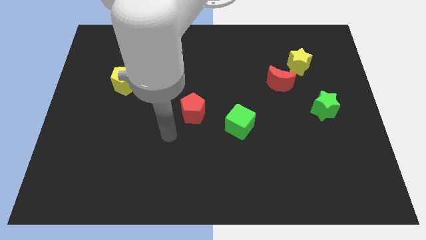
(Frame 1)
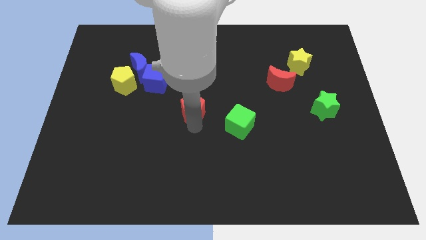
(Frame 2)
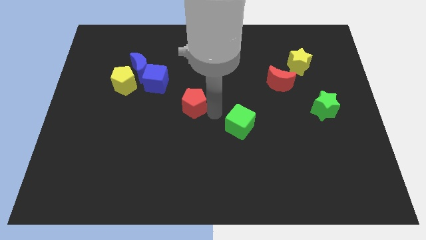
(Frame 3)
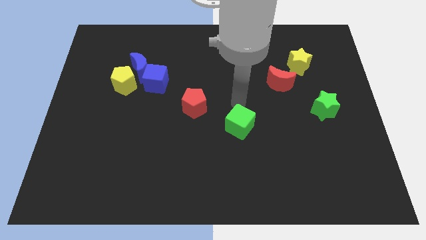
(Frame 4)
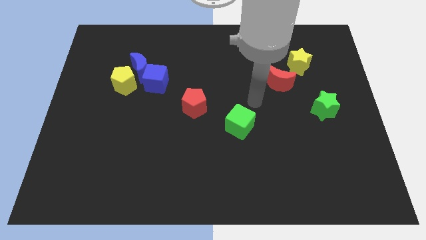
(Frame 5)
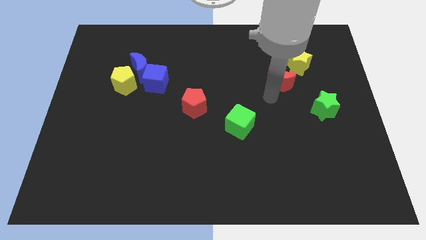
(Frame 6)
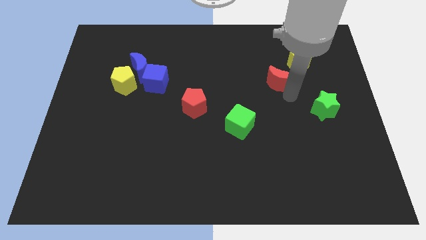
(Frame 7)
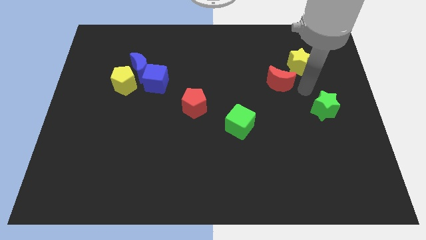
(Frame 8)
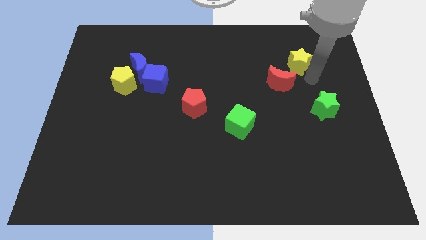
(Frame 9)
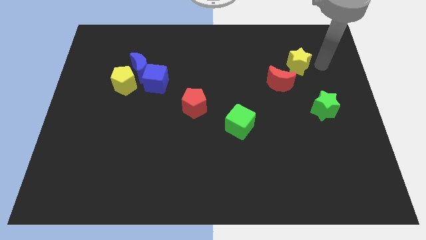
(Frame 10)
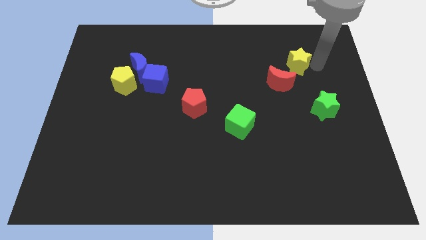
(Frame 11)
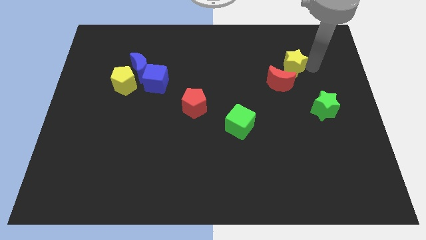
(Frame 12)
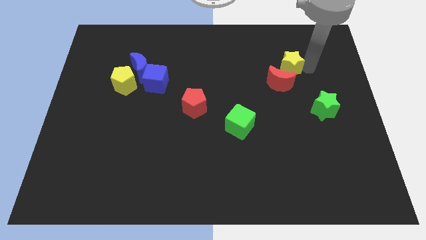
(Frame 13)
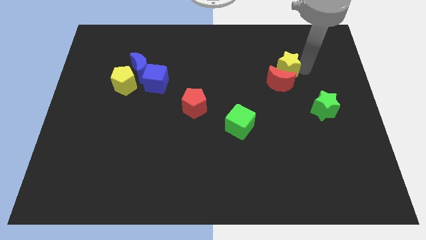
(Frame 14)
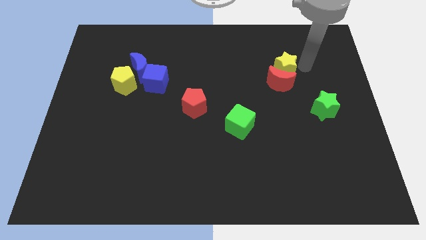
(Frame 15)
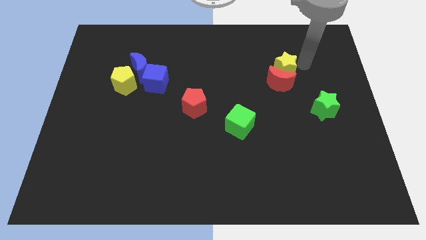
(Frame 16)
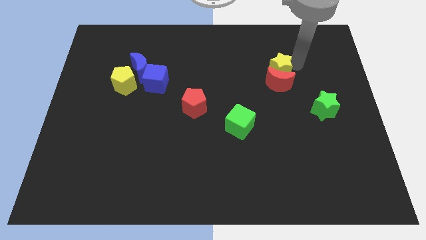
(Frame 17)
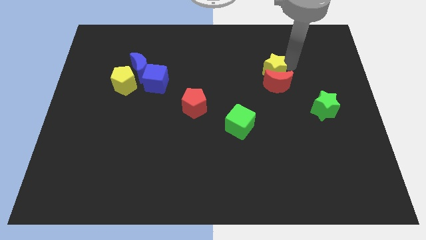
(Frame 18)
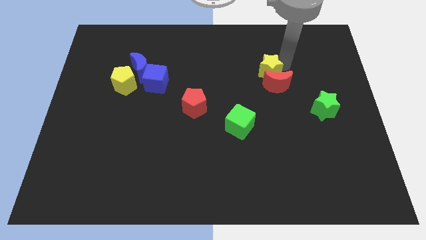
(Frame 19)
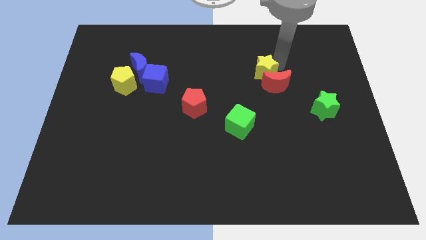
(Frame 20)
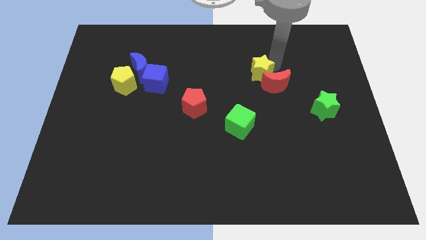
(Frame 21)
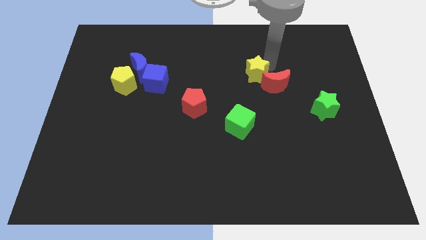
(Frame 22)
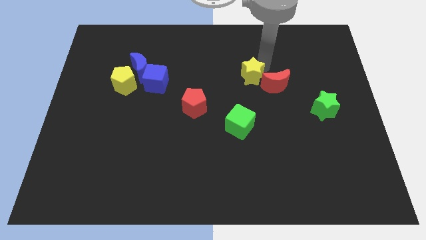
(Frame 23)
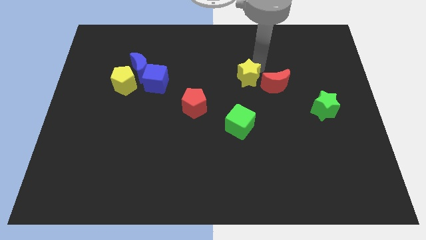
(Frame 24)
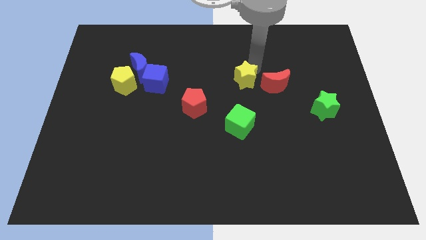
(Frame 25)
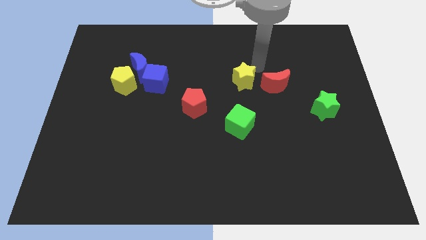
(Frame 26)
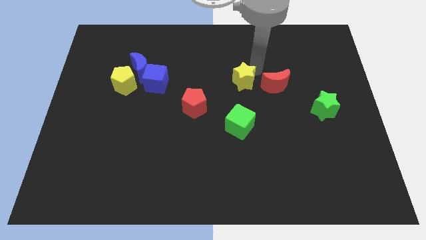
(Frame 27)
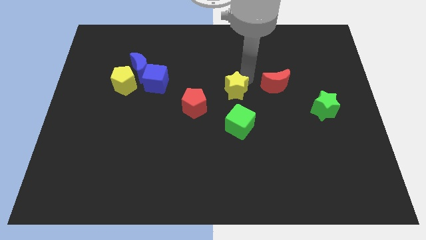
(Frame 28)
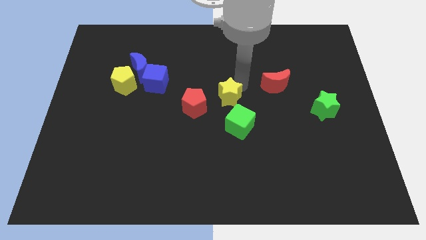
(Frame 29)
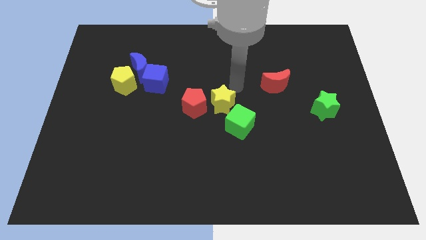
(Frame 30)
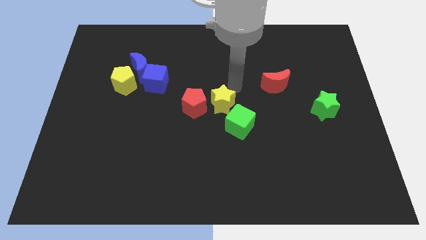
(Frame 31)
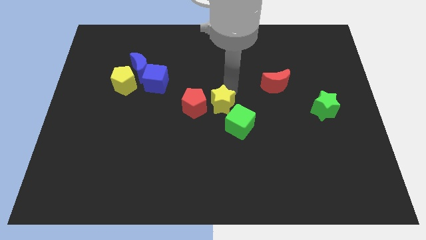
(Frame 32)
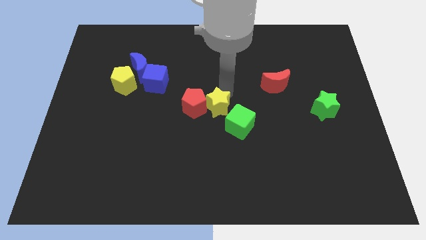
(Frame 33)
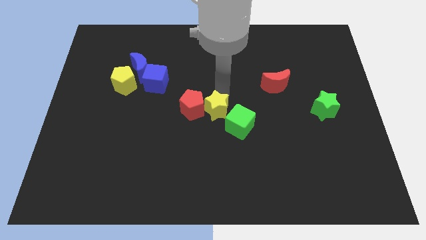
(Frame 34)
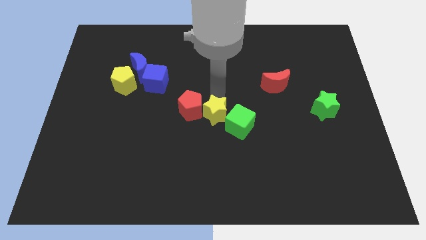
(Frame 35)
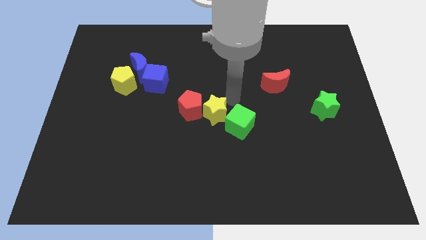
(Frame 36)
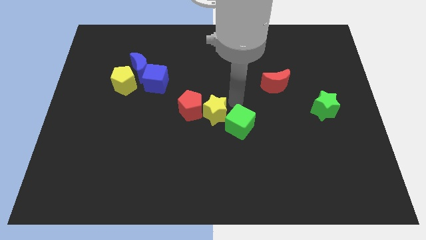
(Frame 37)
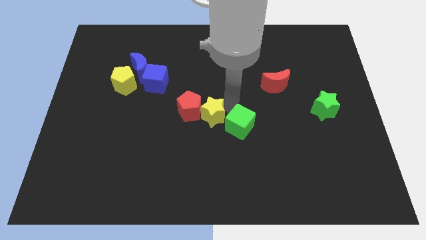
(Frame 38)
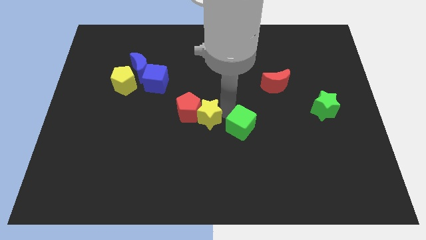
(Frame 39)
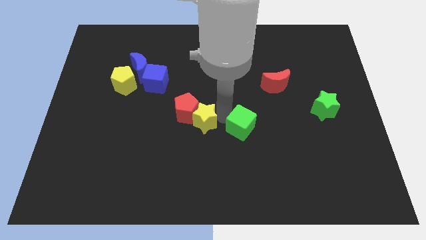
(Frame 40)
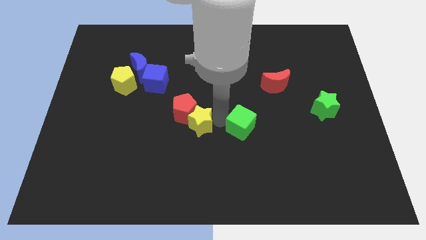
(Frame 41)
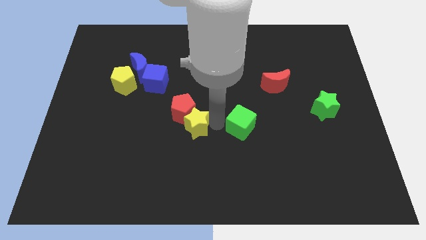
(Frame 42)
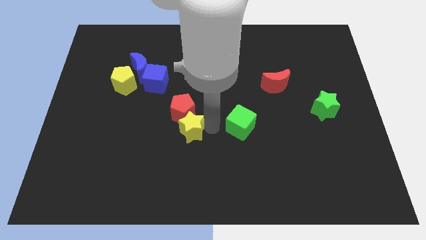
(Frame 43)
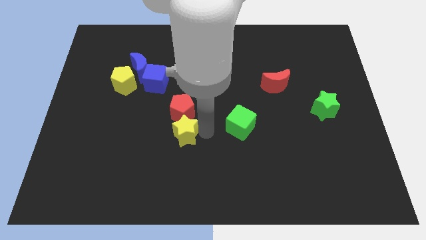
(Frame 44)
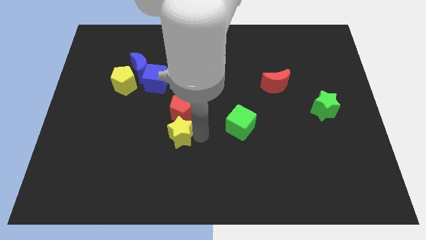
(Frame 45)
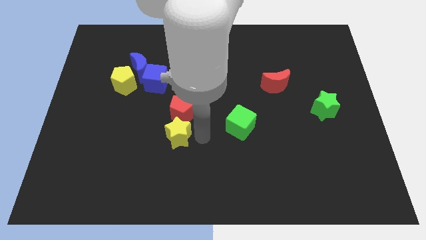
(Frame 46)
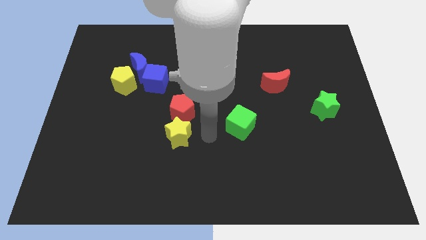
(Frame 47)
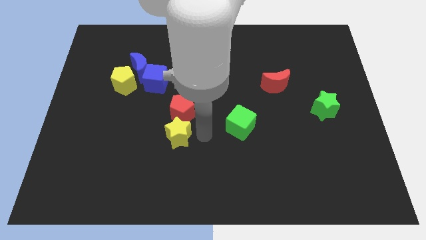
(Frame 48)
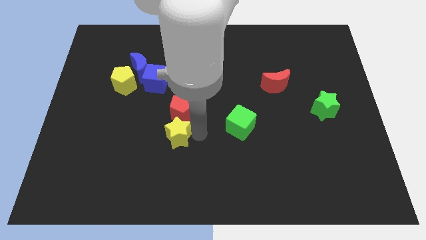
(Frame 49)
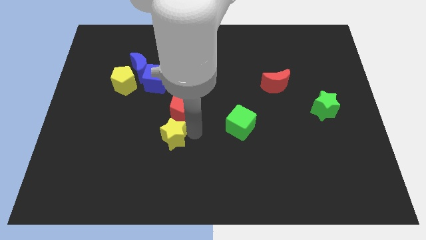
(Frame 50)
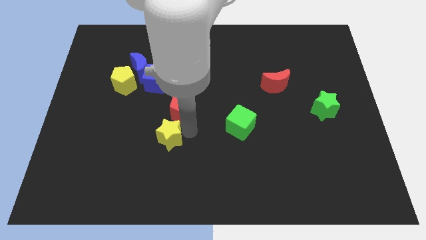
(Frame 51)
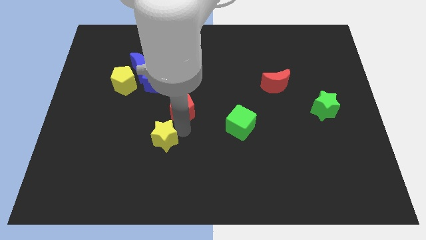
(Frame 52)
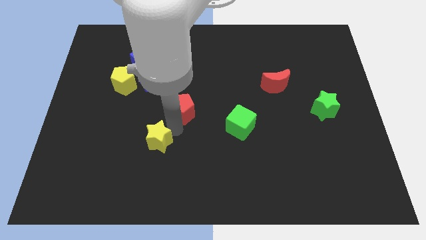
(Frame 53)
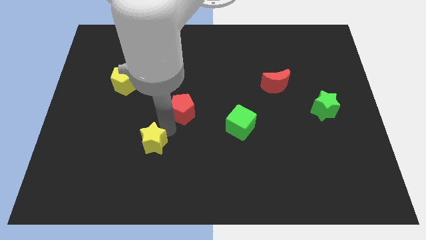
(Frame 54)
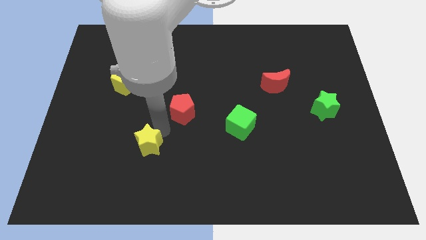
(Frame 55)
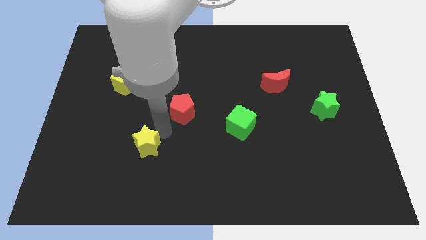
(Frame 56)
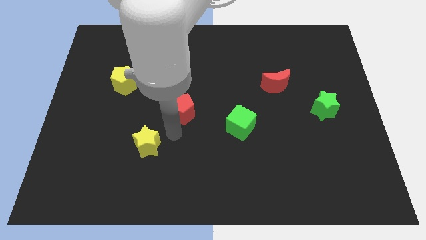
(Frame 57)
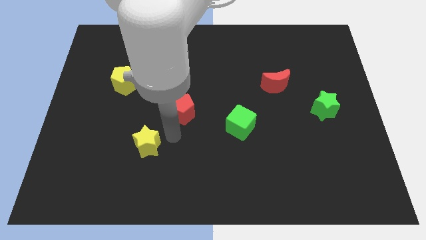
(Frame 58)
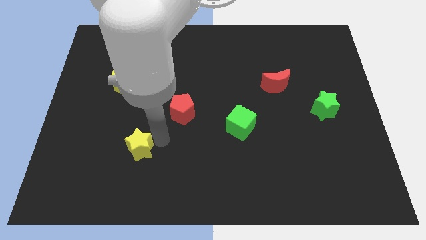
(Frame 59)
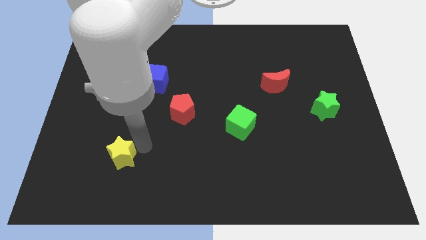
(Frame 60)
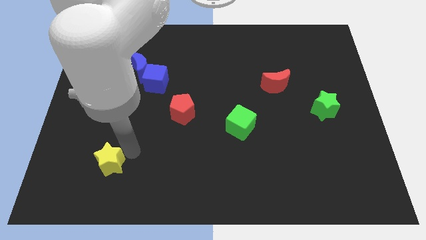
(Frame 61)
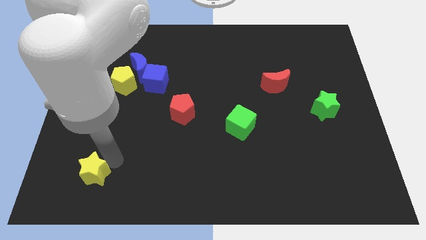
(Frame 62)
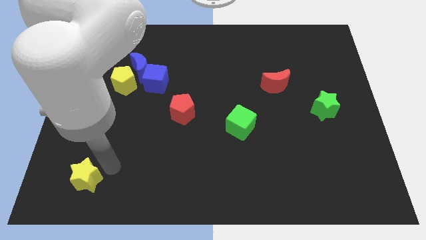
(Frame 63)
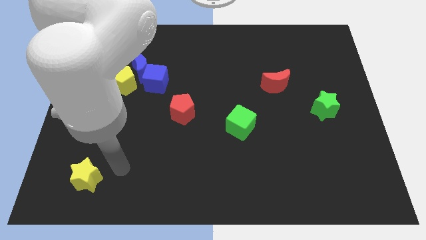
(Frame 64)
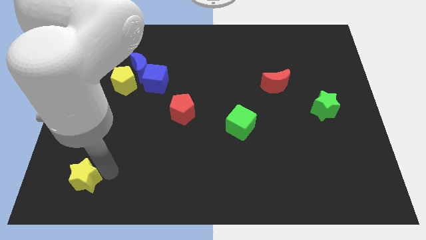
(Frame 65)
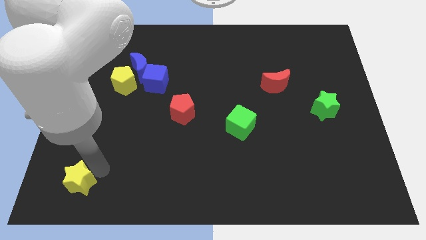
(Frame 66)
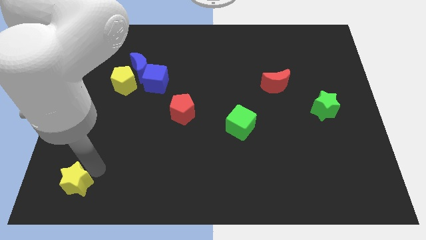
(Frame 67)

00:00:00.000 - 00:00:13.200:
put the yellow star to the bottom left of the board
